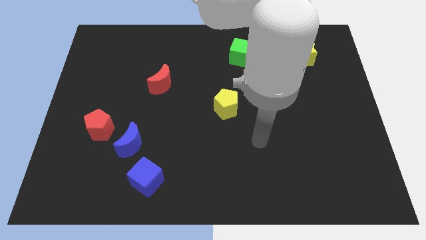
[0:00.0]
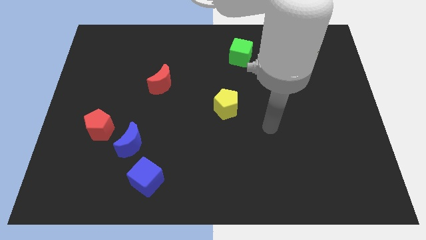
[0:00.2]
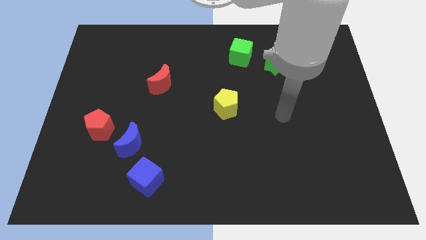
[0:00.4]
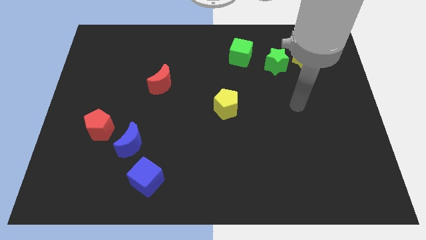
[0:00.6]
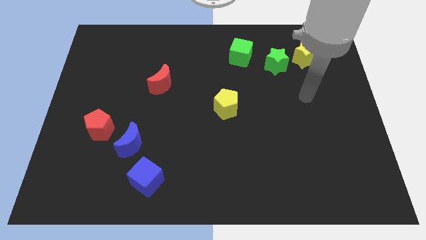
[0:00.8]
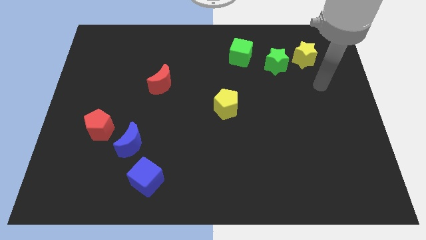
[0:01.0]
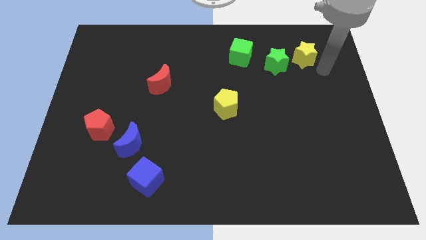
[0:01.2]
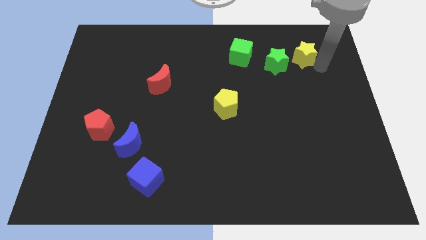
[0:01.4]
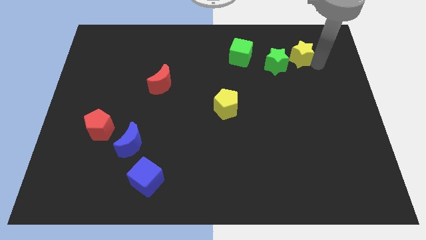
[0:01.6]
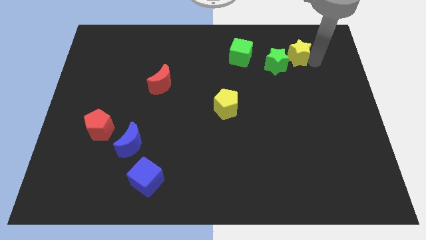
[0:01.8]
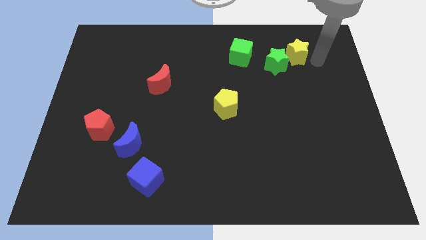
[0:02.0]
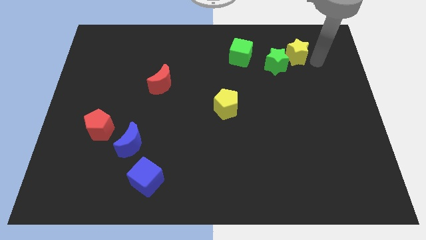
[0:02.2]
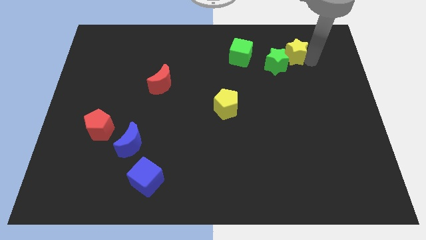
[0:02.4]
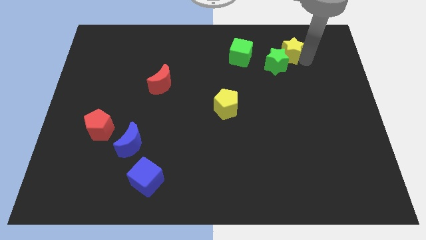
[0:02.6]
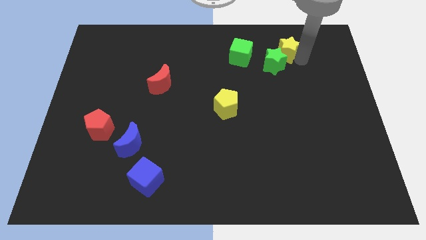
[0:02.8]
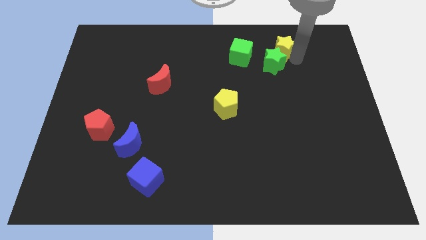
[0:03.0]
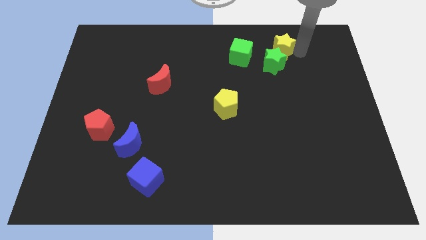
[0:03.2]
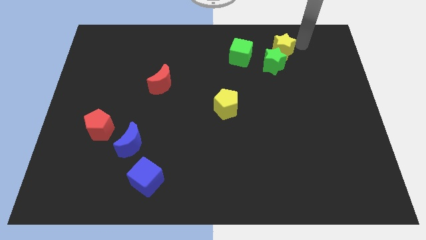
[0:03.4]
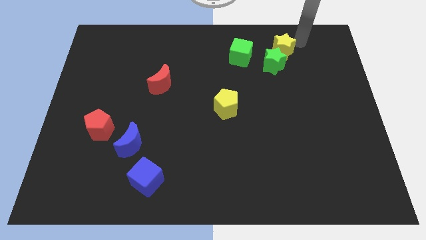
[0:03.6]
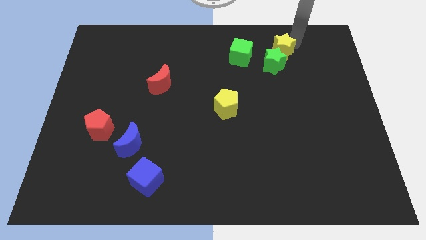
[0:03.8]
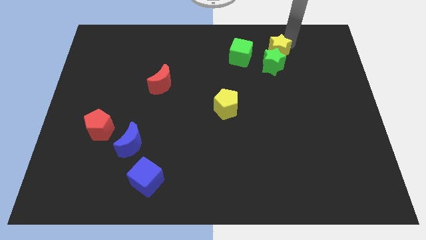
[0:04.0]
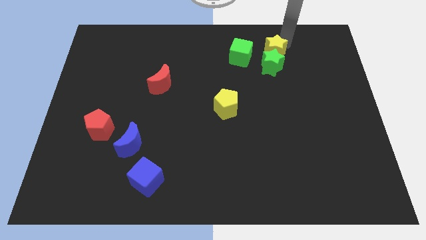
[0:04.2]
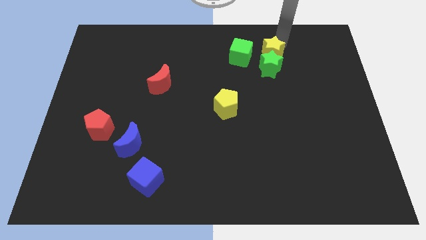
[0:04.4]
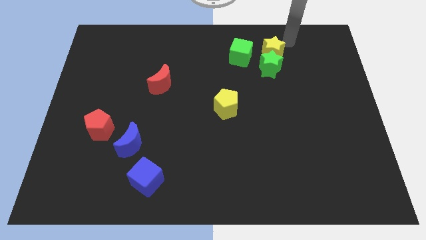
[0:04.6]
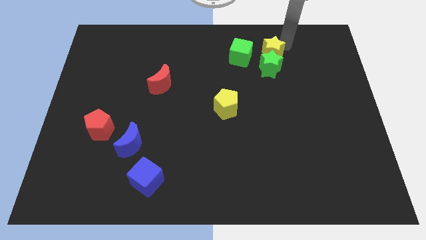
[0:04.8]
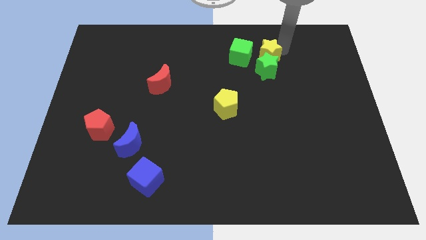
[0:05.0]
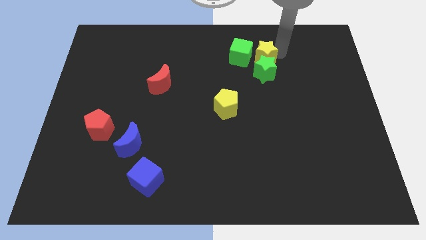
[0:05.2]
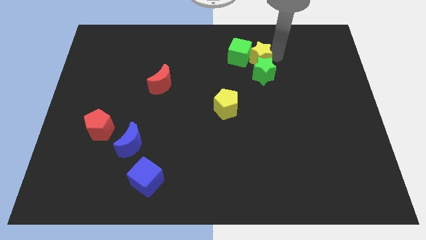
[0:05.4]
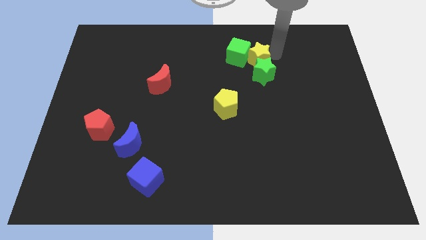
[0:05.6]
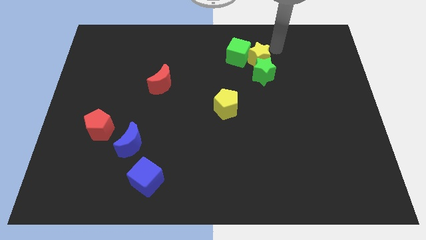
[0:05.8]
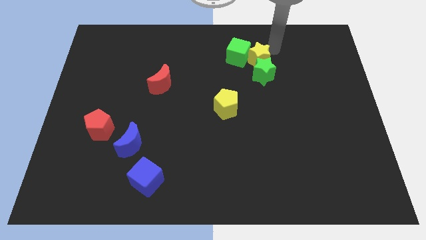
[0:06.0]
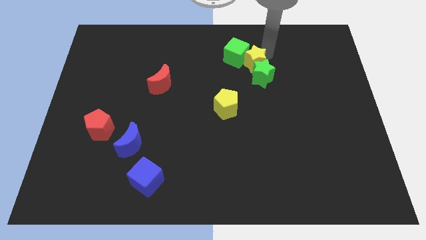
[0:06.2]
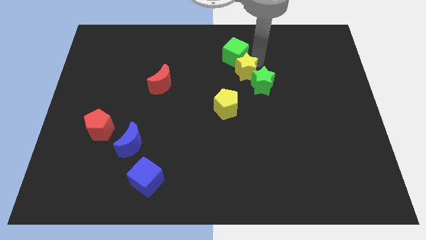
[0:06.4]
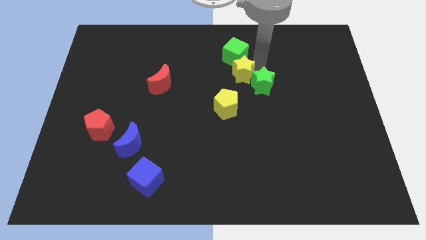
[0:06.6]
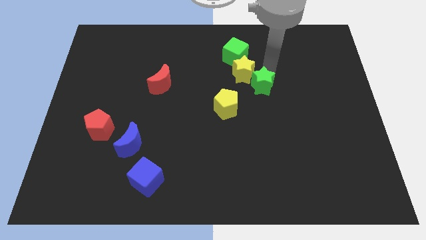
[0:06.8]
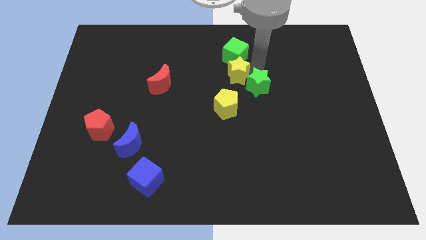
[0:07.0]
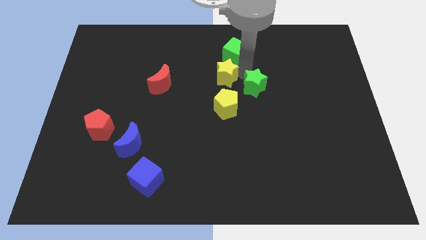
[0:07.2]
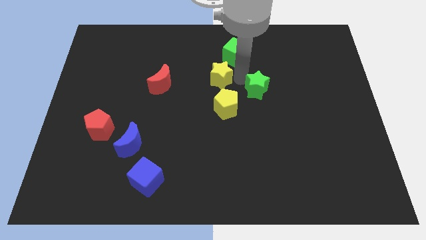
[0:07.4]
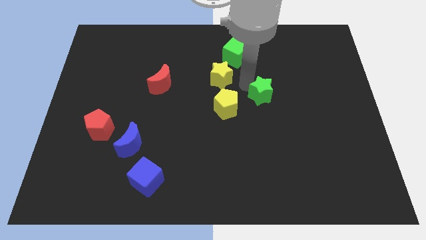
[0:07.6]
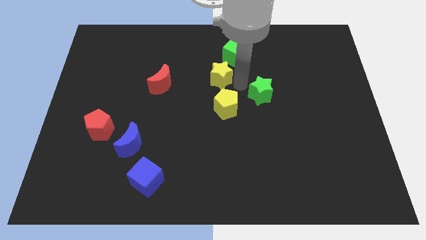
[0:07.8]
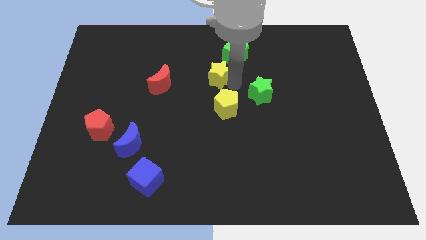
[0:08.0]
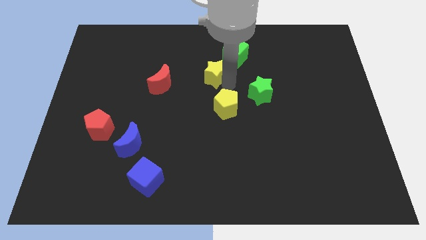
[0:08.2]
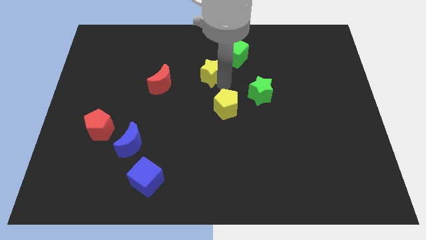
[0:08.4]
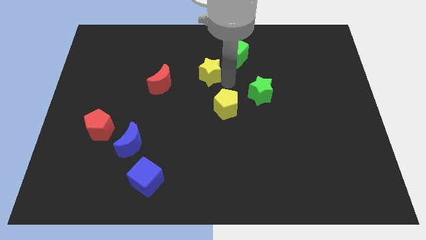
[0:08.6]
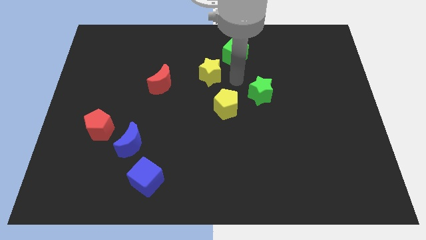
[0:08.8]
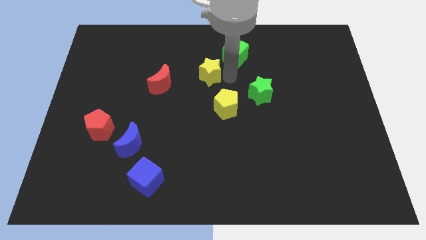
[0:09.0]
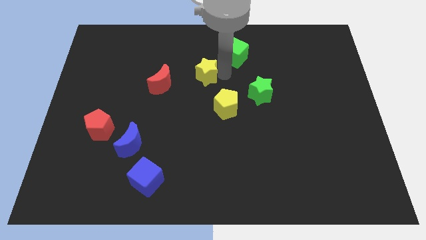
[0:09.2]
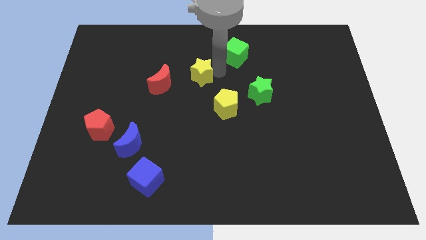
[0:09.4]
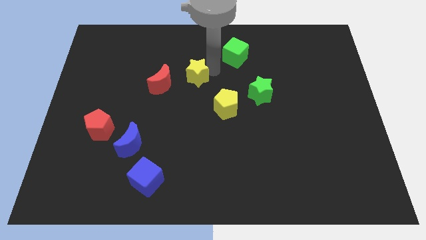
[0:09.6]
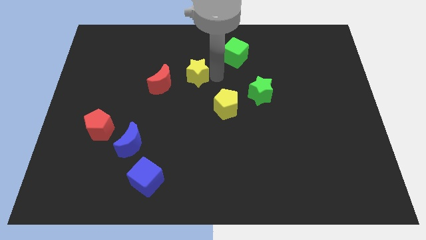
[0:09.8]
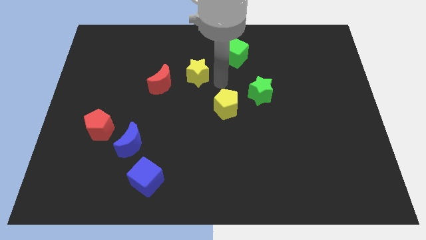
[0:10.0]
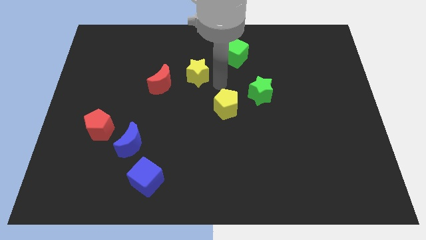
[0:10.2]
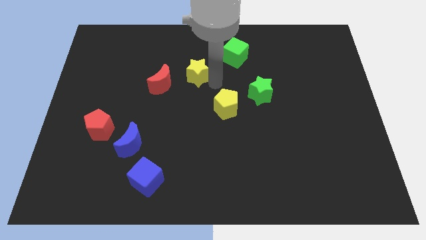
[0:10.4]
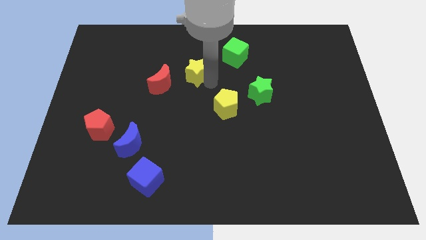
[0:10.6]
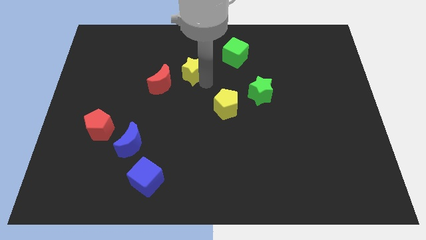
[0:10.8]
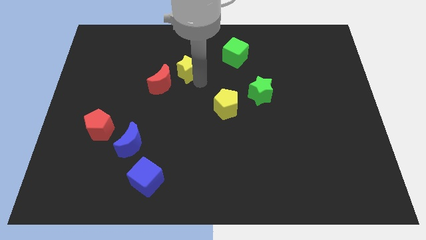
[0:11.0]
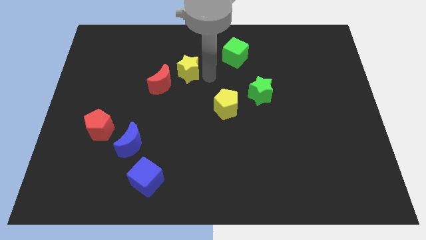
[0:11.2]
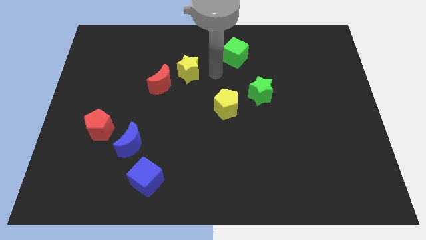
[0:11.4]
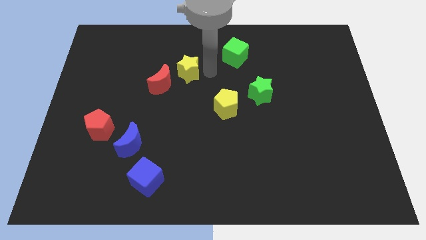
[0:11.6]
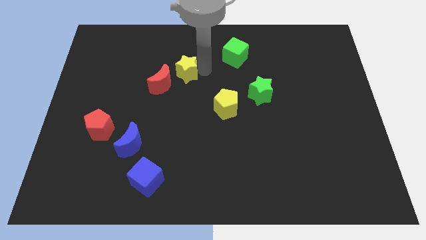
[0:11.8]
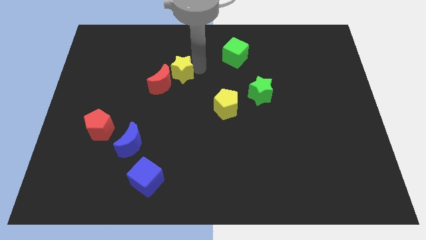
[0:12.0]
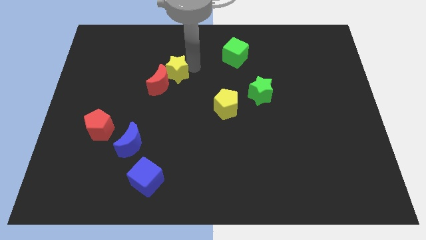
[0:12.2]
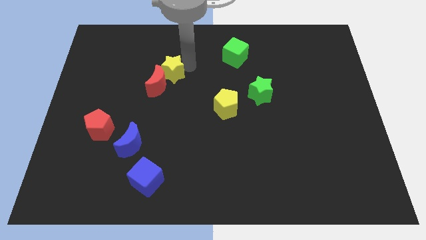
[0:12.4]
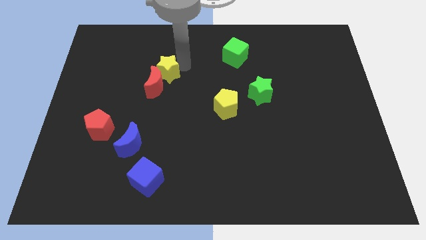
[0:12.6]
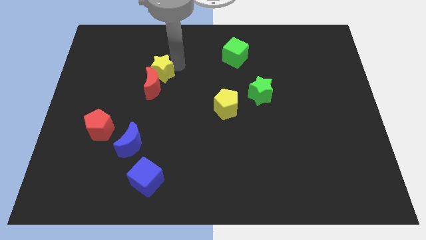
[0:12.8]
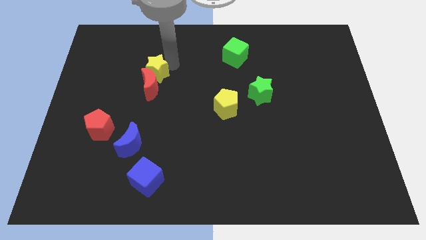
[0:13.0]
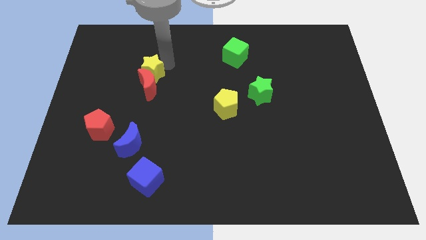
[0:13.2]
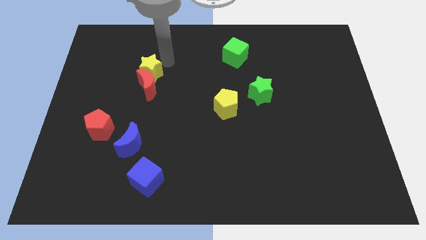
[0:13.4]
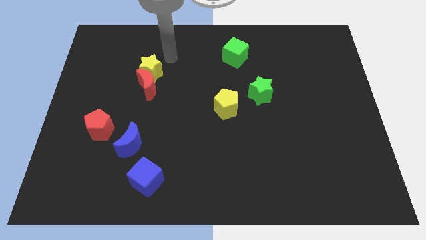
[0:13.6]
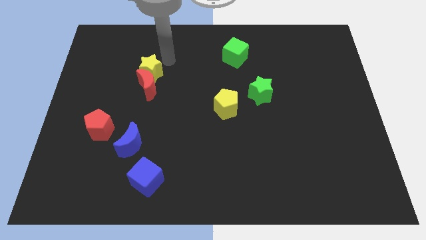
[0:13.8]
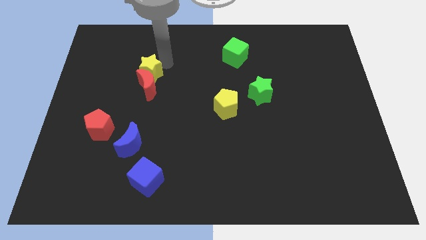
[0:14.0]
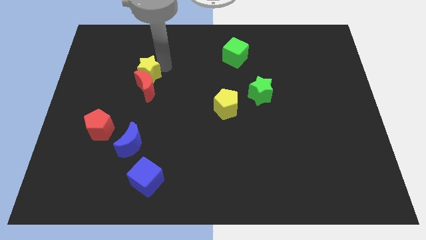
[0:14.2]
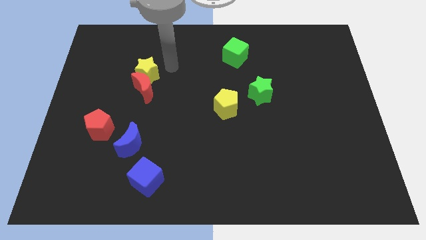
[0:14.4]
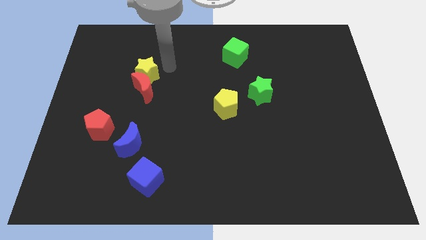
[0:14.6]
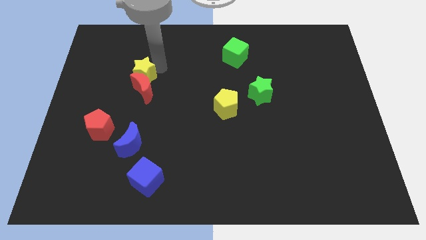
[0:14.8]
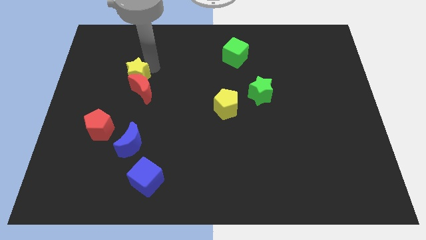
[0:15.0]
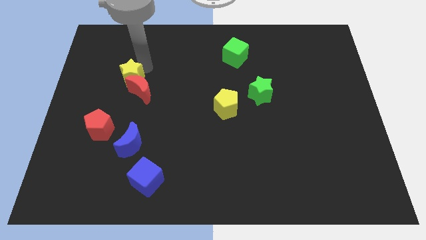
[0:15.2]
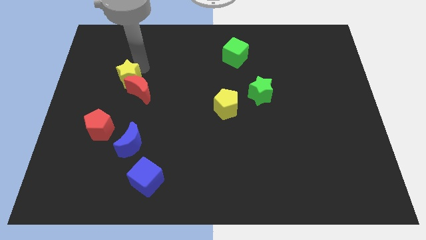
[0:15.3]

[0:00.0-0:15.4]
put the yellow star left of the red moon
